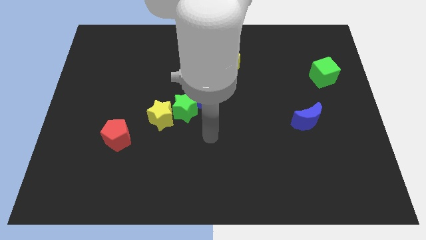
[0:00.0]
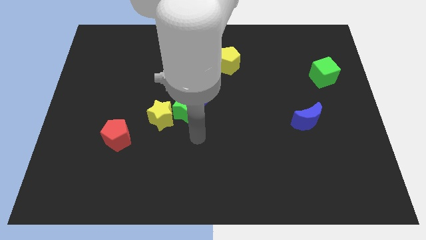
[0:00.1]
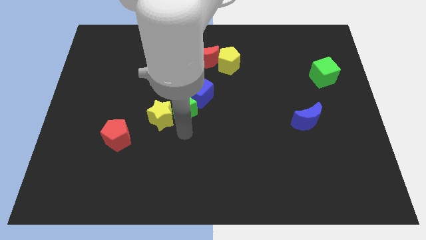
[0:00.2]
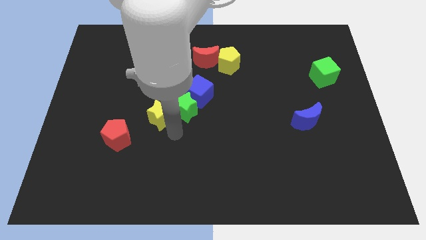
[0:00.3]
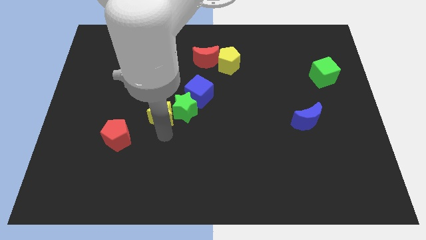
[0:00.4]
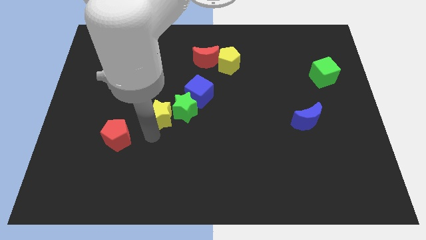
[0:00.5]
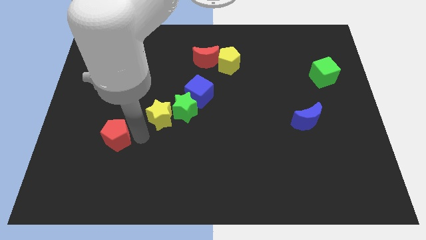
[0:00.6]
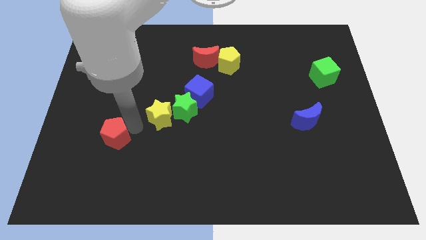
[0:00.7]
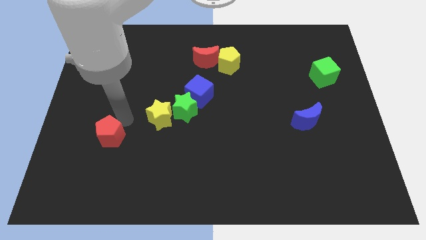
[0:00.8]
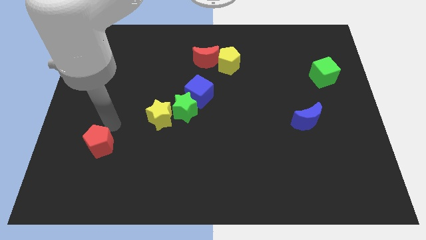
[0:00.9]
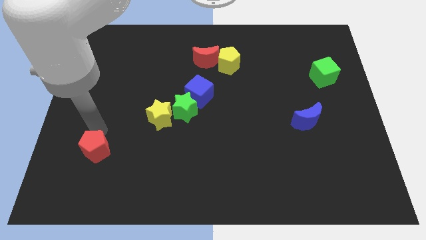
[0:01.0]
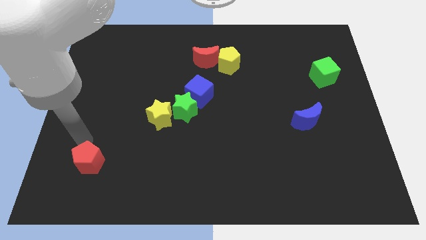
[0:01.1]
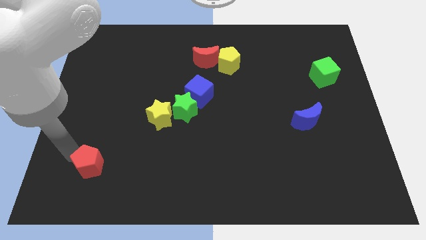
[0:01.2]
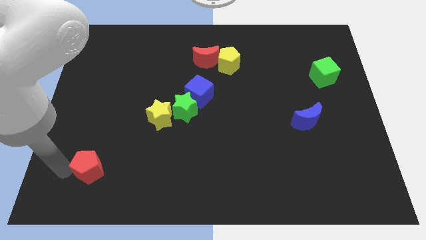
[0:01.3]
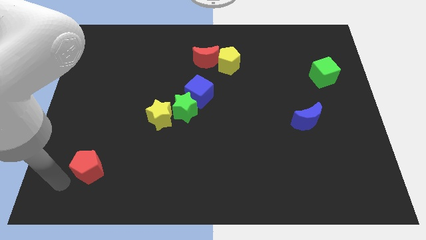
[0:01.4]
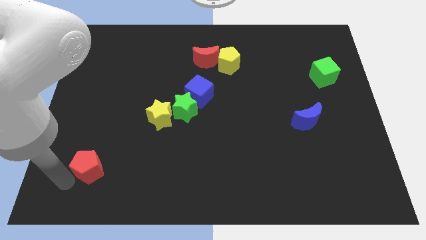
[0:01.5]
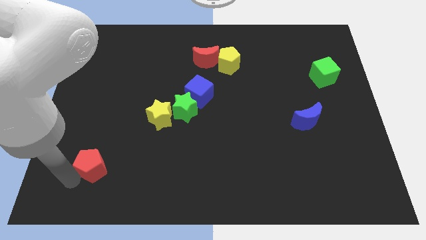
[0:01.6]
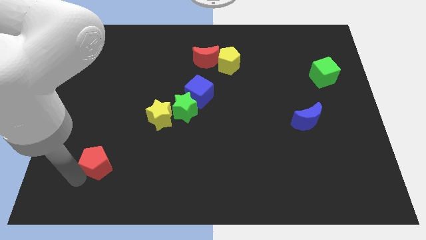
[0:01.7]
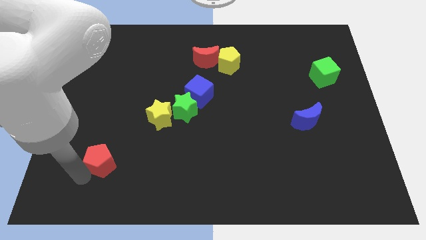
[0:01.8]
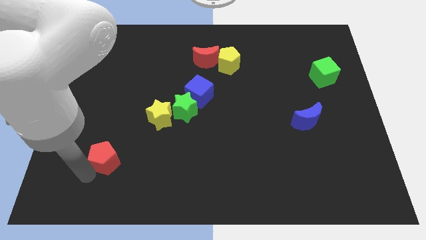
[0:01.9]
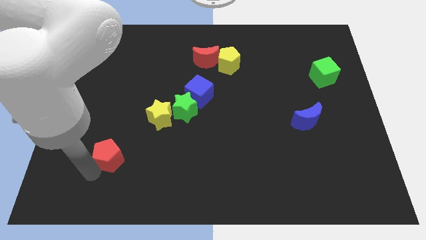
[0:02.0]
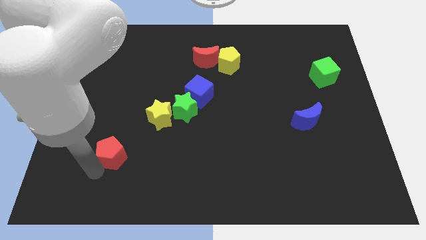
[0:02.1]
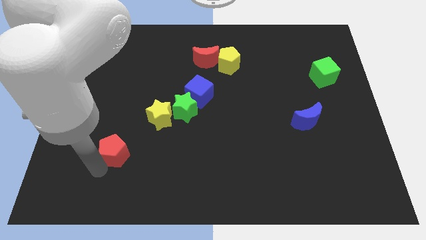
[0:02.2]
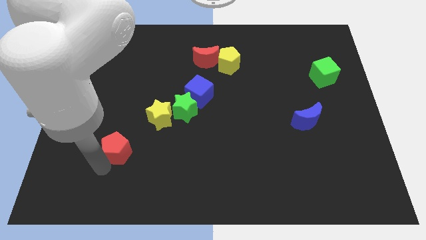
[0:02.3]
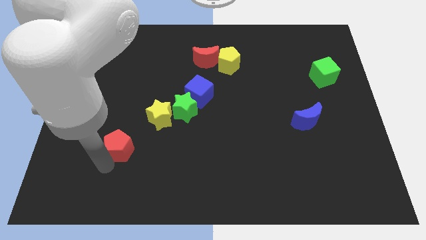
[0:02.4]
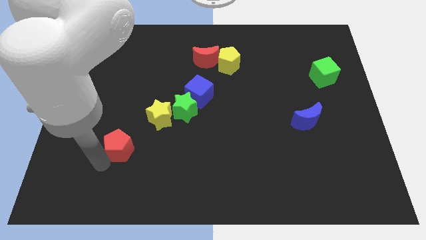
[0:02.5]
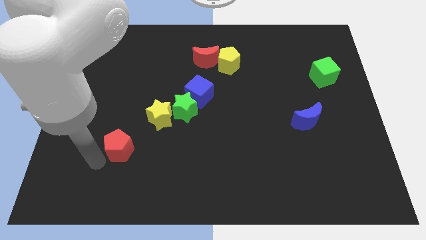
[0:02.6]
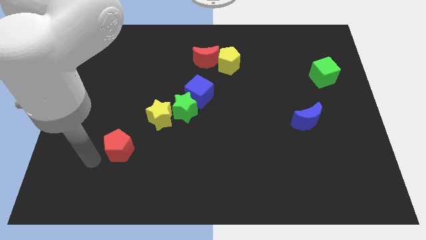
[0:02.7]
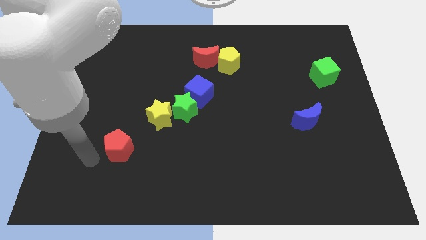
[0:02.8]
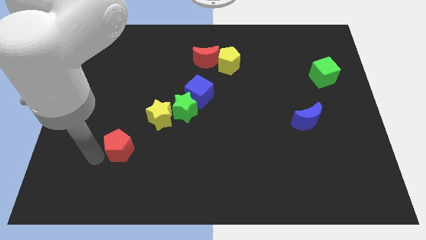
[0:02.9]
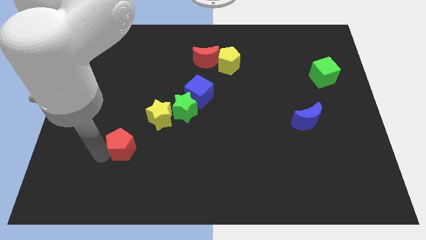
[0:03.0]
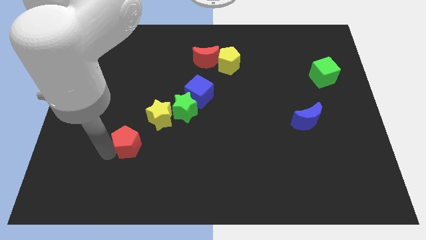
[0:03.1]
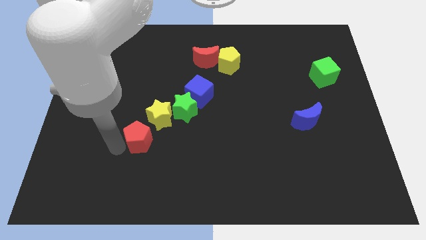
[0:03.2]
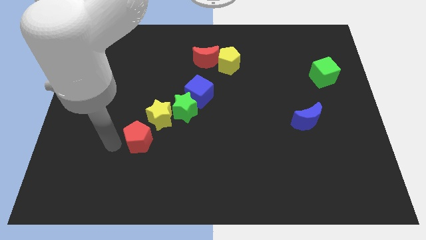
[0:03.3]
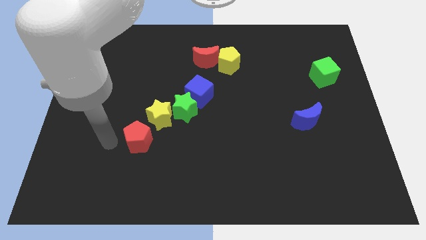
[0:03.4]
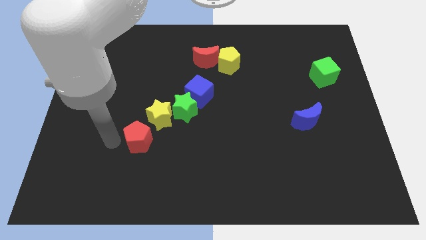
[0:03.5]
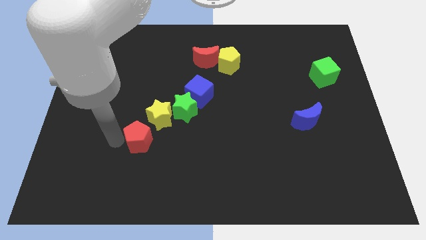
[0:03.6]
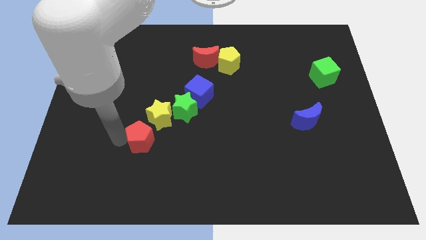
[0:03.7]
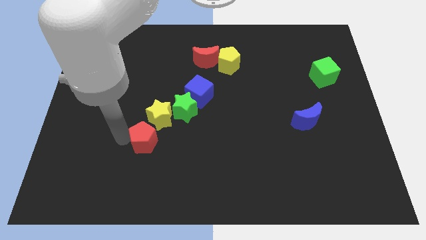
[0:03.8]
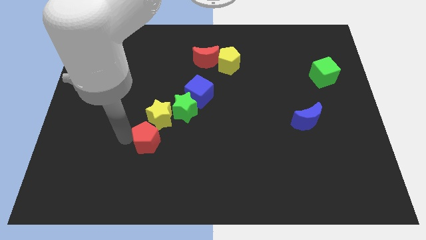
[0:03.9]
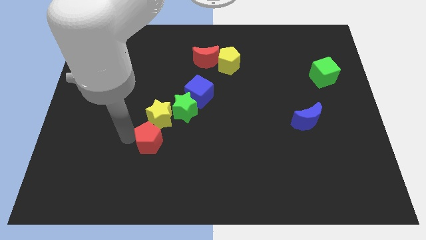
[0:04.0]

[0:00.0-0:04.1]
slightly move the red pentagon to the right

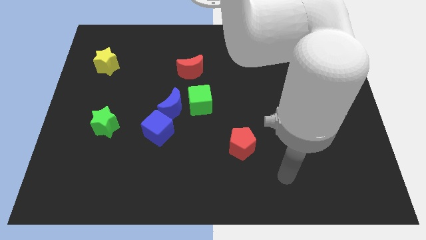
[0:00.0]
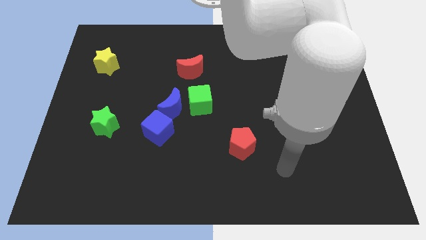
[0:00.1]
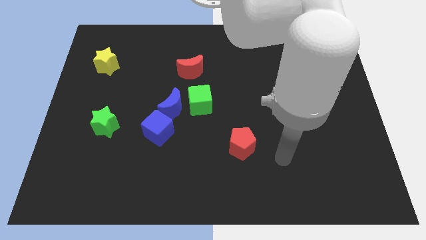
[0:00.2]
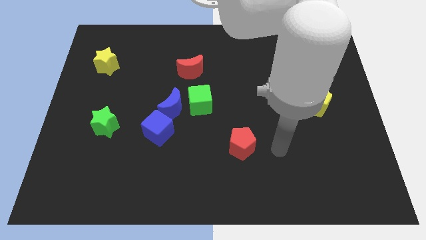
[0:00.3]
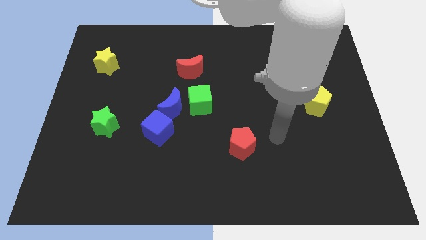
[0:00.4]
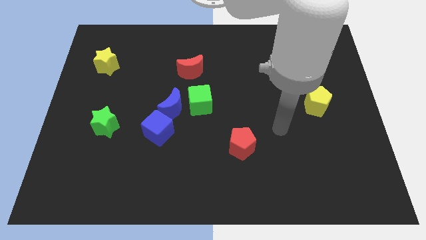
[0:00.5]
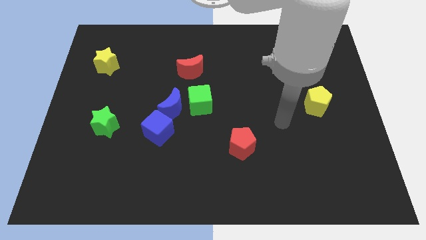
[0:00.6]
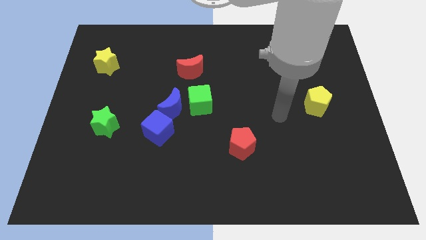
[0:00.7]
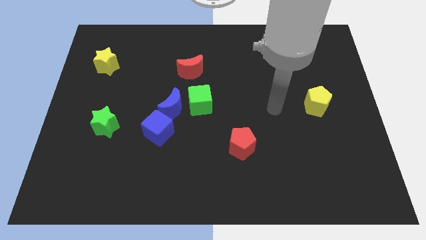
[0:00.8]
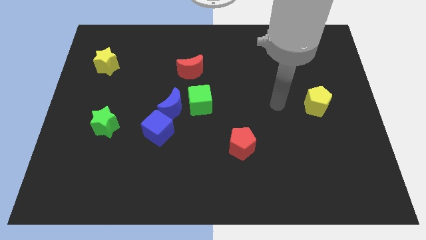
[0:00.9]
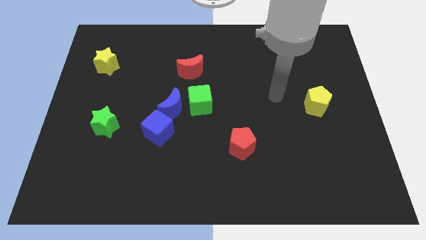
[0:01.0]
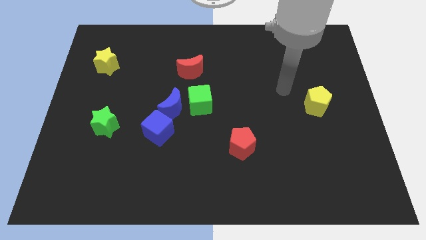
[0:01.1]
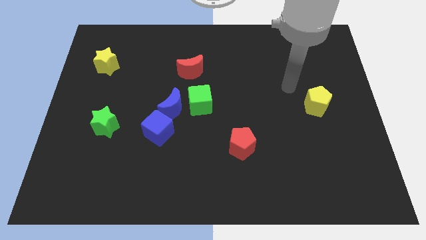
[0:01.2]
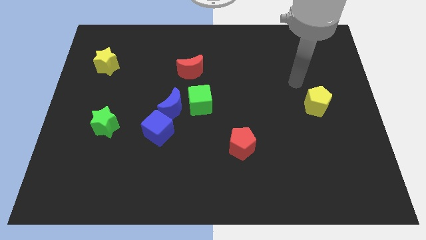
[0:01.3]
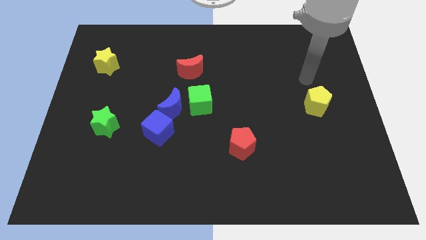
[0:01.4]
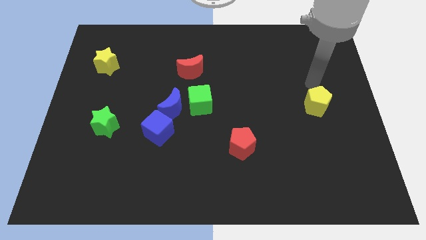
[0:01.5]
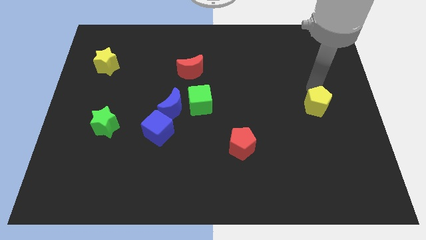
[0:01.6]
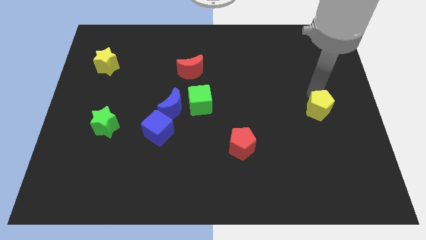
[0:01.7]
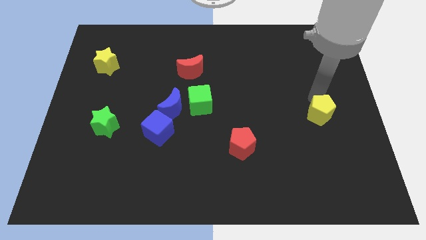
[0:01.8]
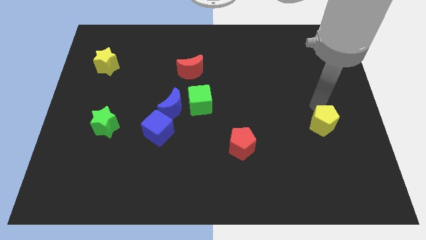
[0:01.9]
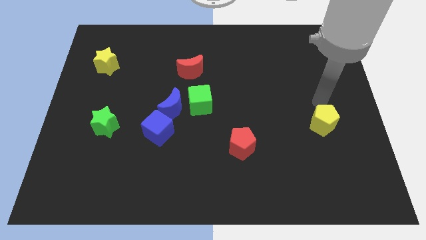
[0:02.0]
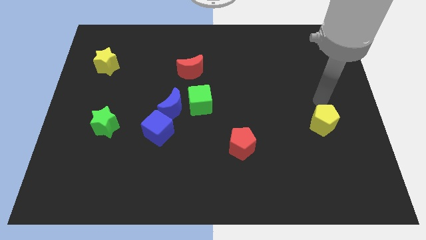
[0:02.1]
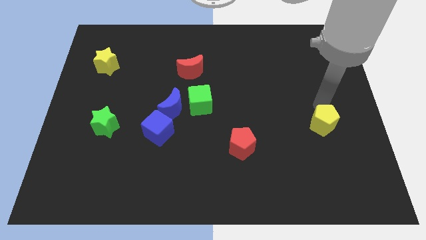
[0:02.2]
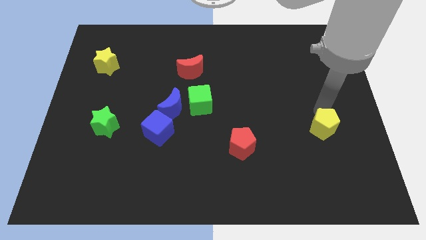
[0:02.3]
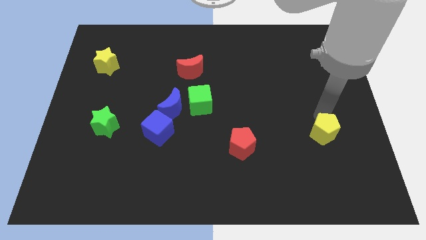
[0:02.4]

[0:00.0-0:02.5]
slightly slide the yellow pentagon downwards

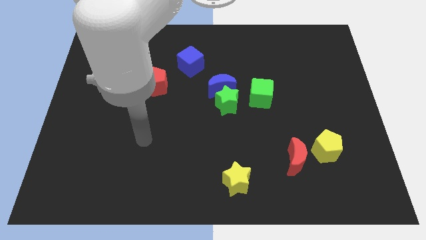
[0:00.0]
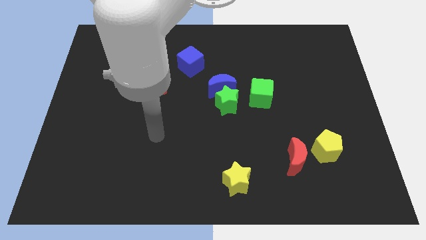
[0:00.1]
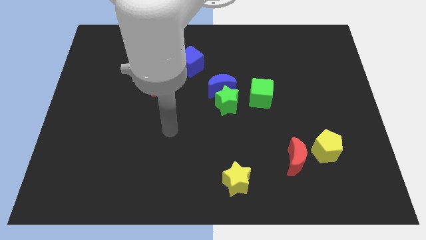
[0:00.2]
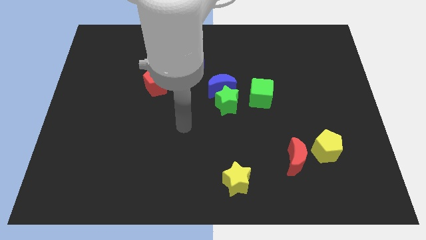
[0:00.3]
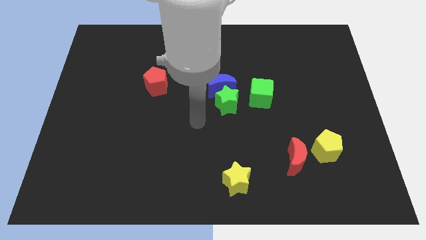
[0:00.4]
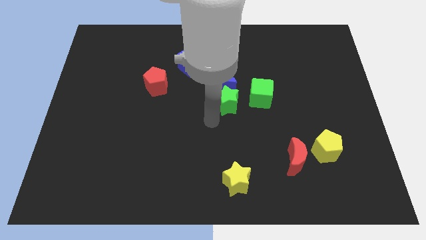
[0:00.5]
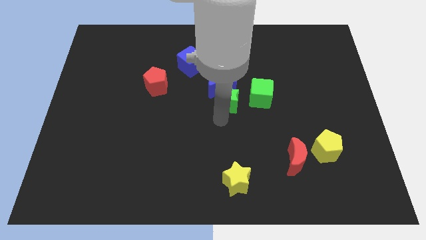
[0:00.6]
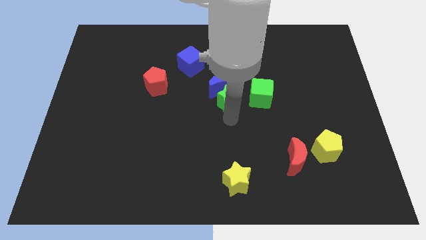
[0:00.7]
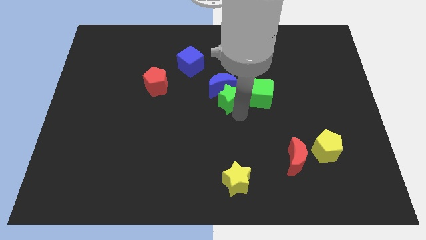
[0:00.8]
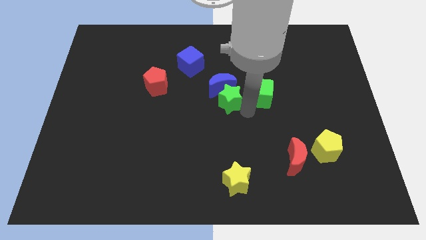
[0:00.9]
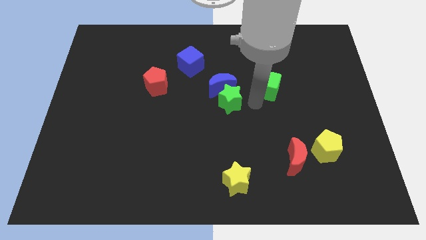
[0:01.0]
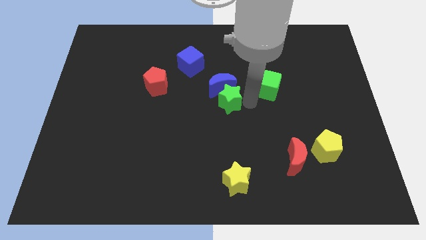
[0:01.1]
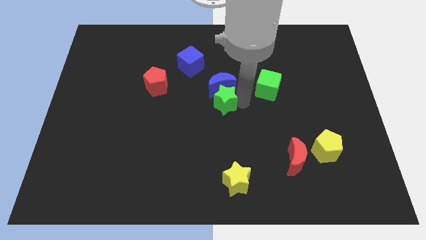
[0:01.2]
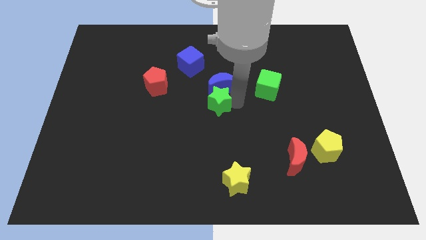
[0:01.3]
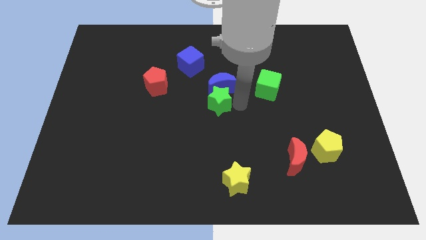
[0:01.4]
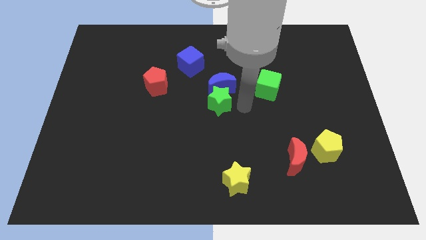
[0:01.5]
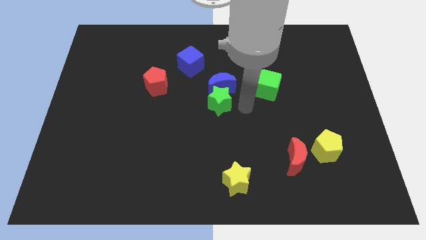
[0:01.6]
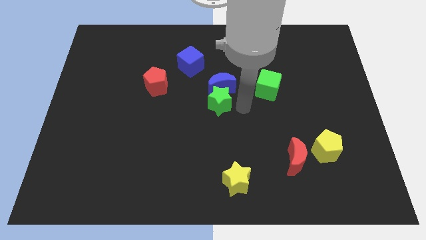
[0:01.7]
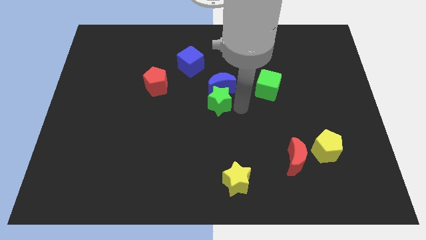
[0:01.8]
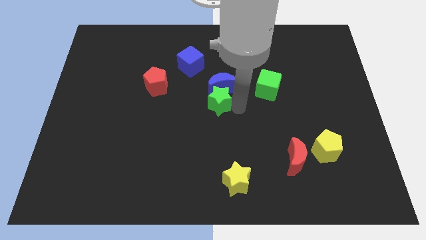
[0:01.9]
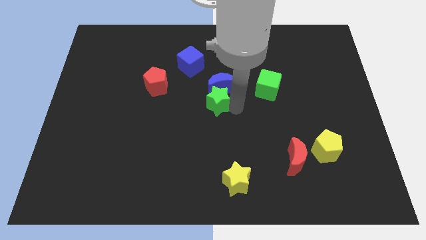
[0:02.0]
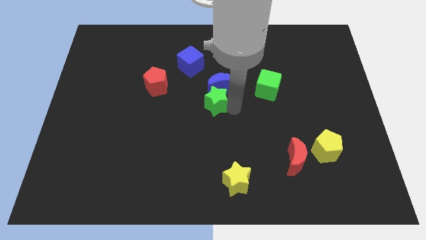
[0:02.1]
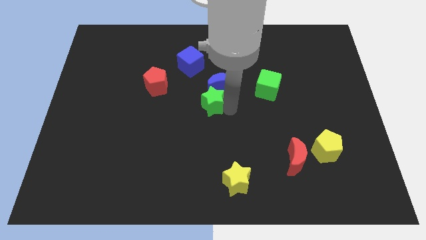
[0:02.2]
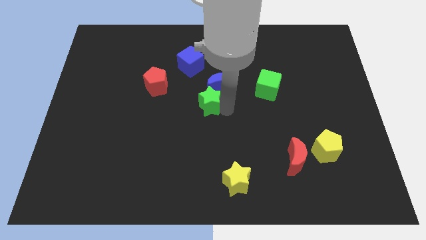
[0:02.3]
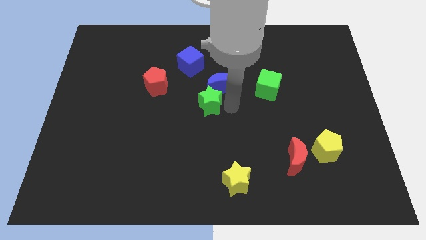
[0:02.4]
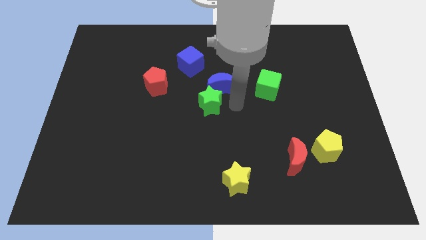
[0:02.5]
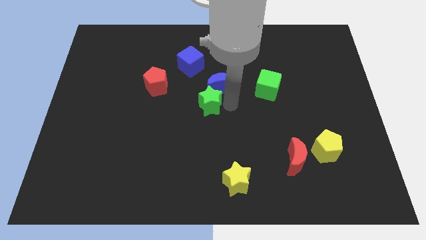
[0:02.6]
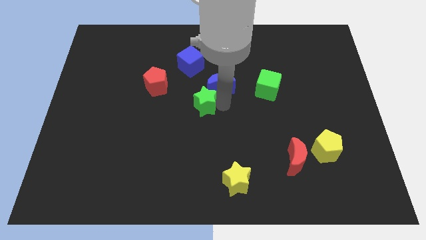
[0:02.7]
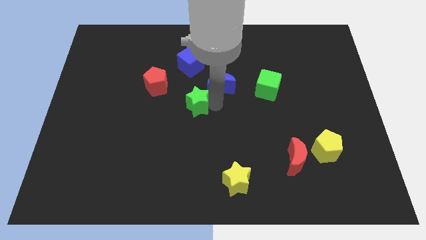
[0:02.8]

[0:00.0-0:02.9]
push the green star left slightly
